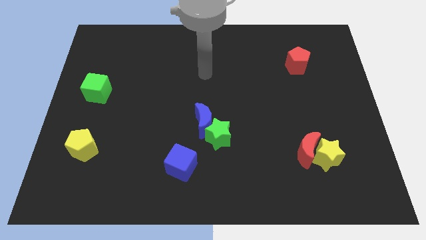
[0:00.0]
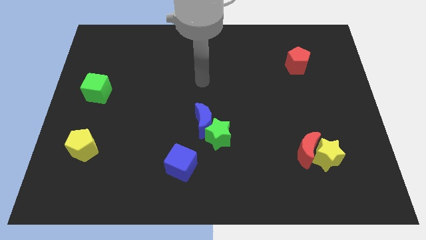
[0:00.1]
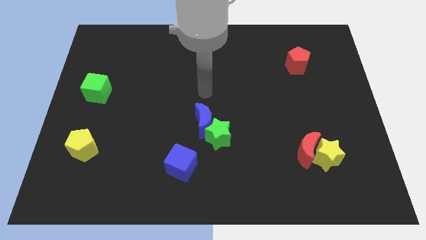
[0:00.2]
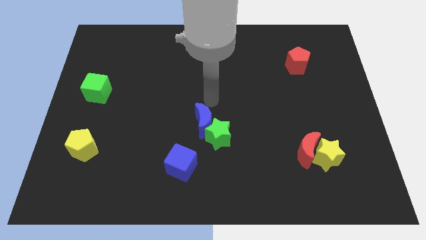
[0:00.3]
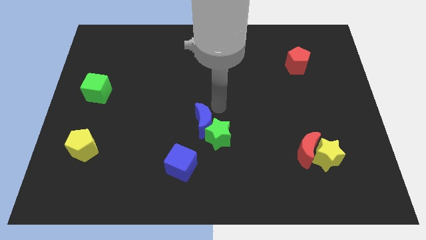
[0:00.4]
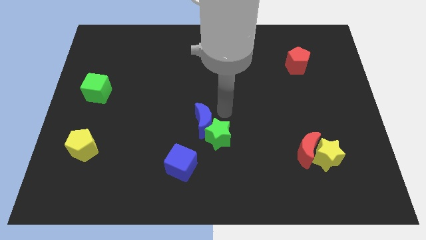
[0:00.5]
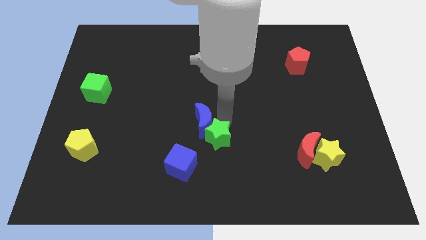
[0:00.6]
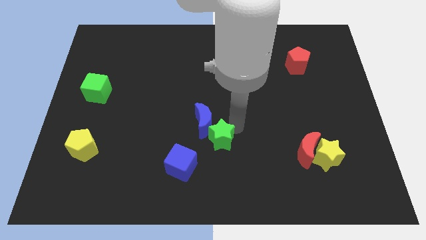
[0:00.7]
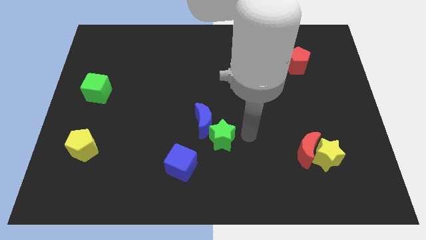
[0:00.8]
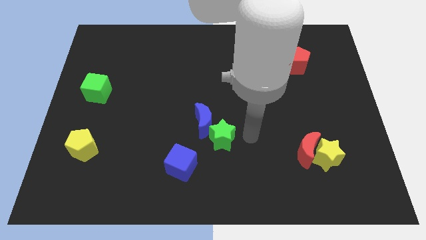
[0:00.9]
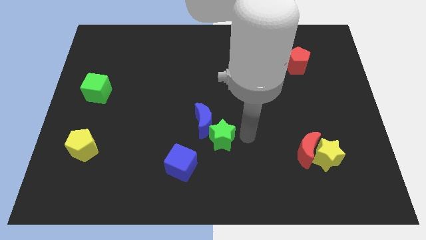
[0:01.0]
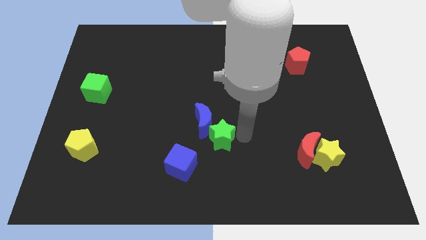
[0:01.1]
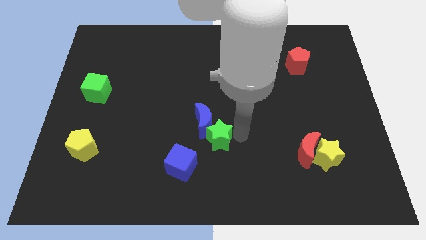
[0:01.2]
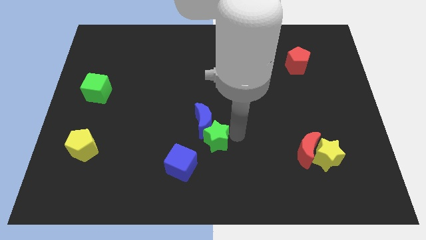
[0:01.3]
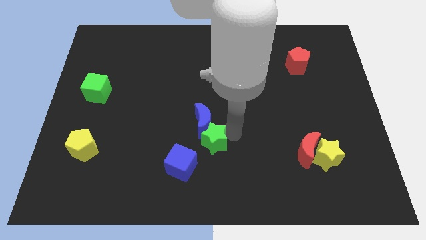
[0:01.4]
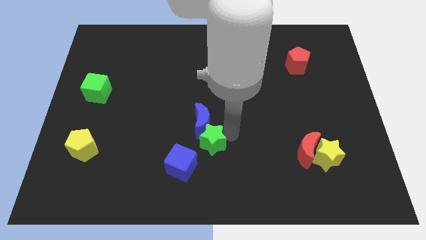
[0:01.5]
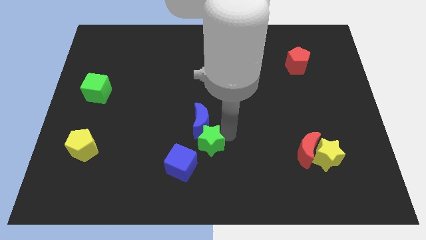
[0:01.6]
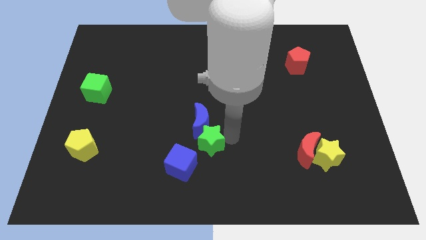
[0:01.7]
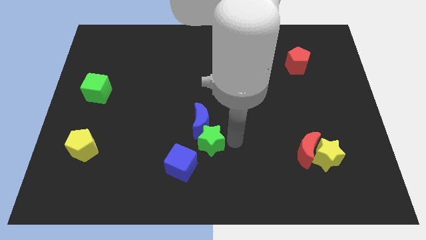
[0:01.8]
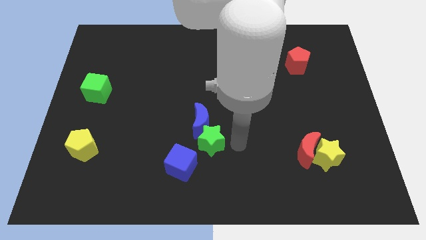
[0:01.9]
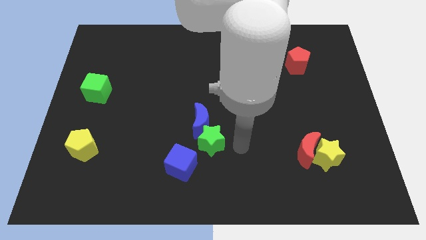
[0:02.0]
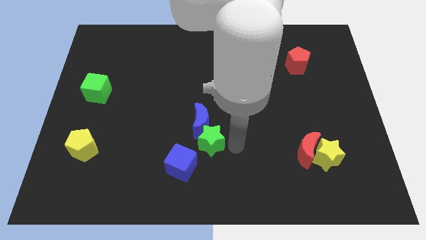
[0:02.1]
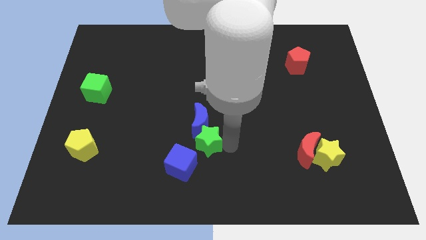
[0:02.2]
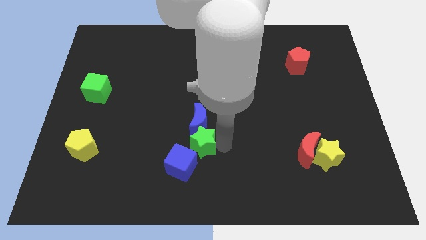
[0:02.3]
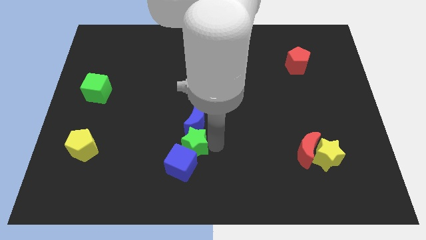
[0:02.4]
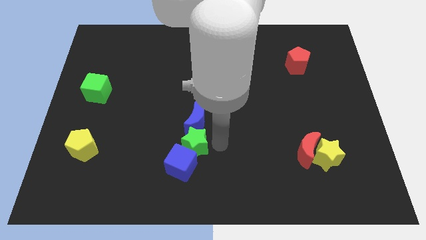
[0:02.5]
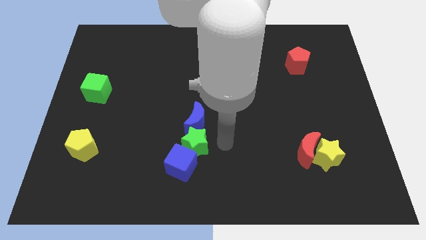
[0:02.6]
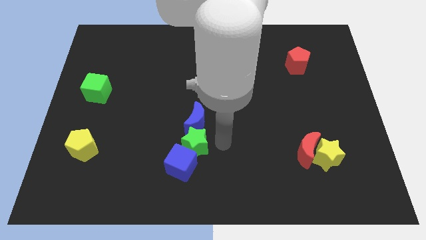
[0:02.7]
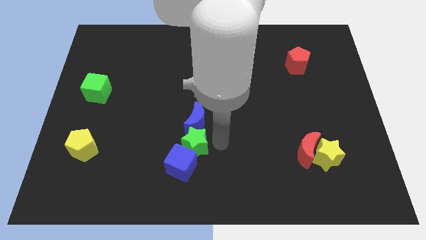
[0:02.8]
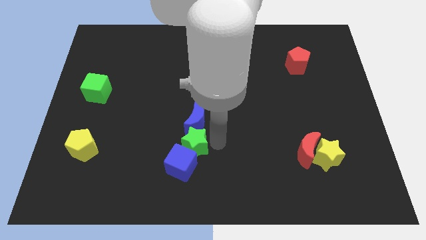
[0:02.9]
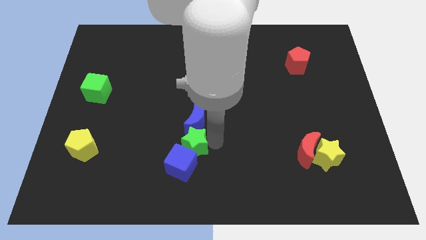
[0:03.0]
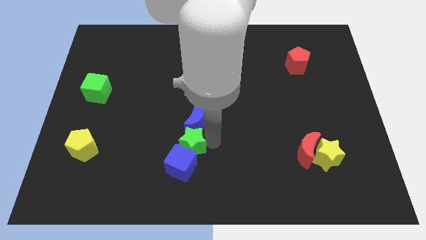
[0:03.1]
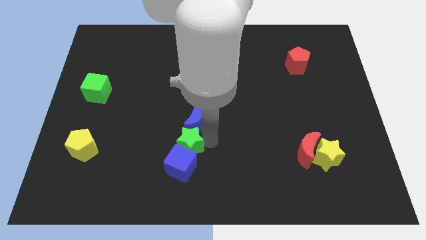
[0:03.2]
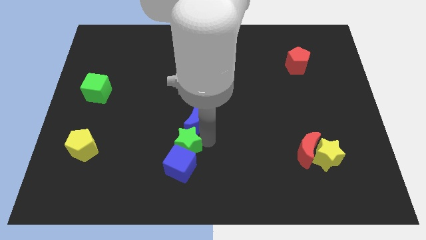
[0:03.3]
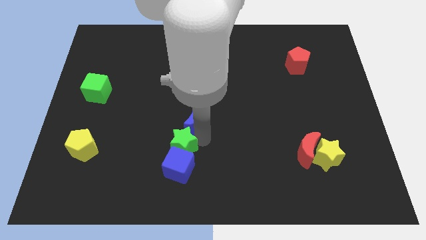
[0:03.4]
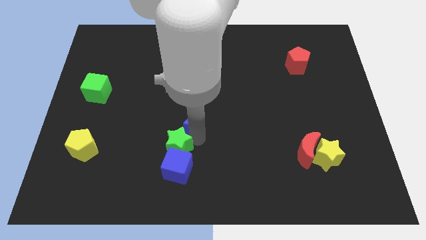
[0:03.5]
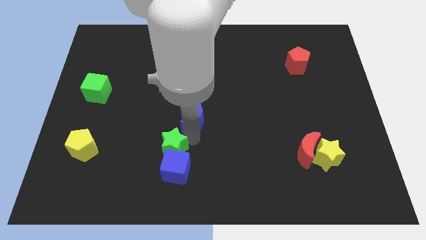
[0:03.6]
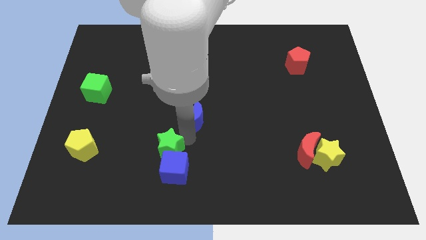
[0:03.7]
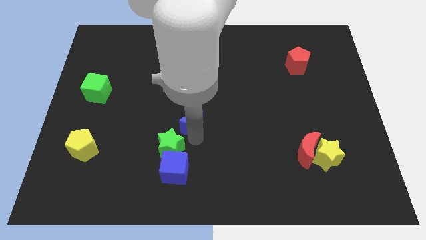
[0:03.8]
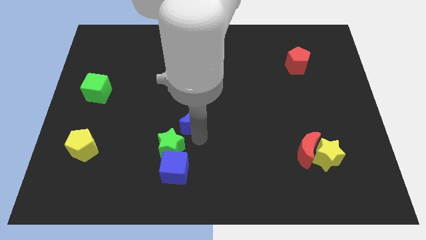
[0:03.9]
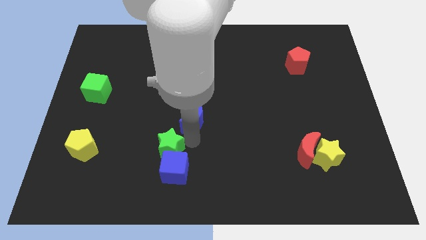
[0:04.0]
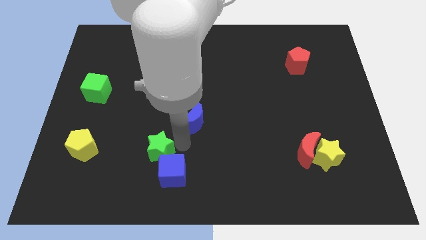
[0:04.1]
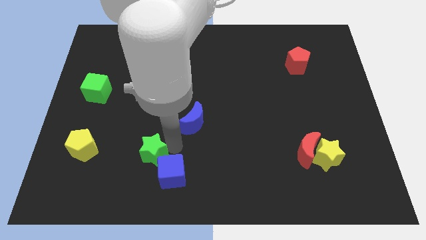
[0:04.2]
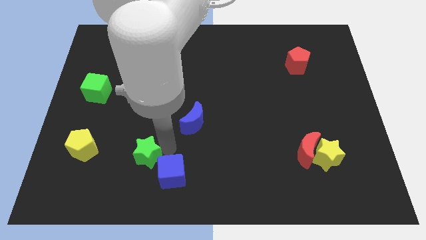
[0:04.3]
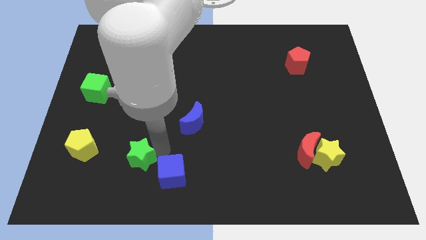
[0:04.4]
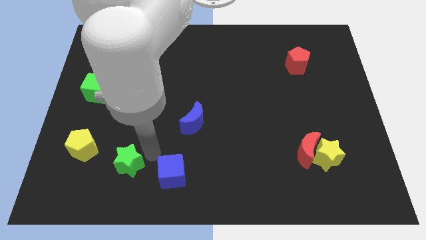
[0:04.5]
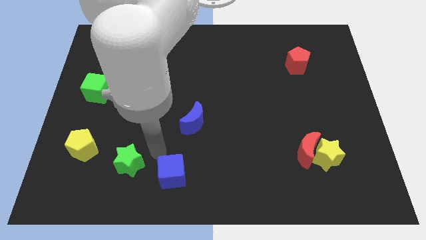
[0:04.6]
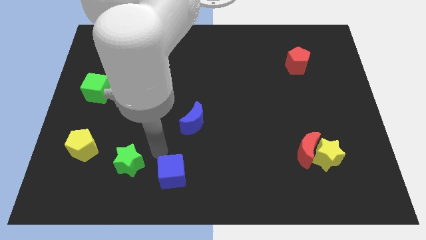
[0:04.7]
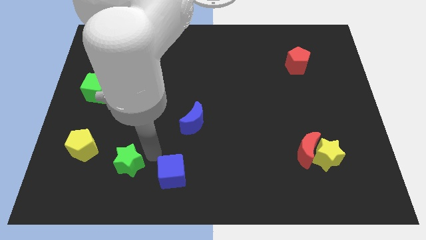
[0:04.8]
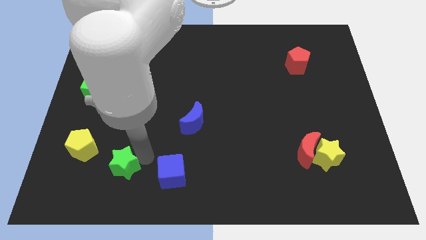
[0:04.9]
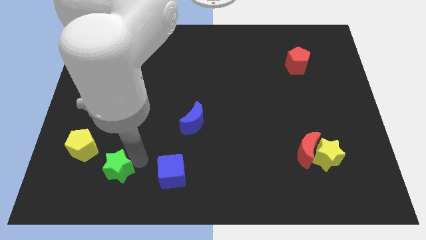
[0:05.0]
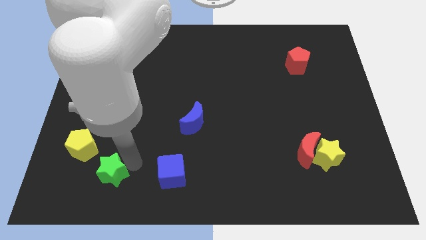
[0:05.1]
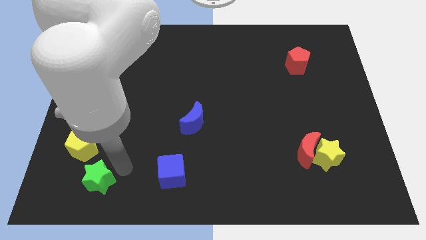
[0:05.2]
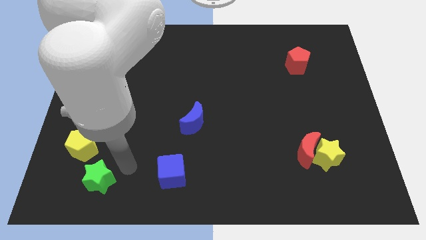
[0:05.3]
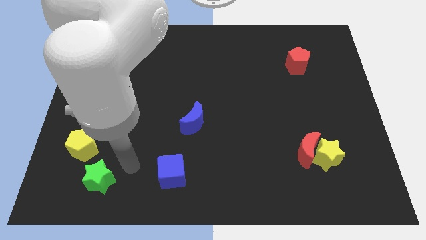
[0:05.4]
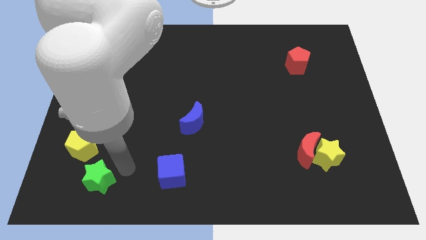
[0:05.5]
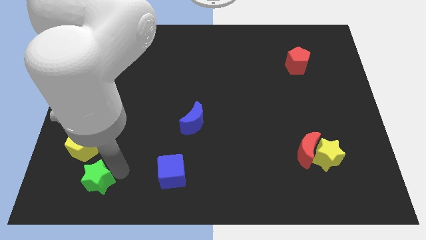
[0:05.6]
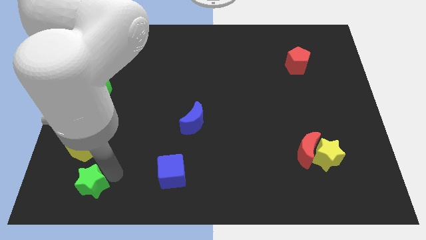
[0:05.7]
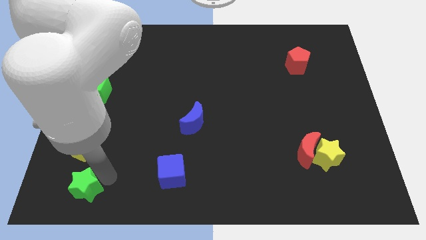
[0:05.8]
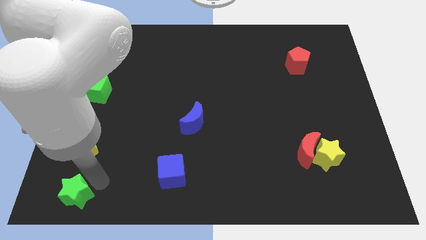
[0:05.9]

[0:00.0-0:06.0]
put the green star to the bottom left

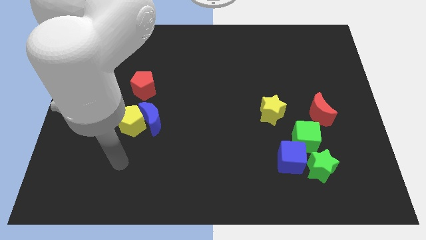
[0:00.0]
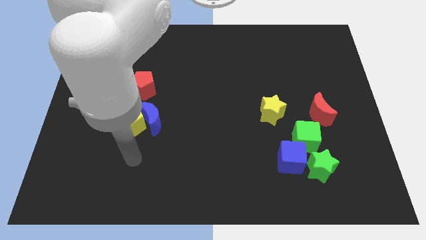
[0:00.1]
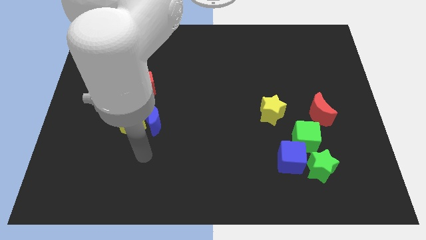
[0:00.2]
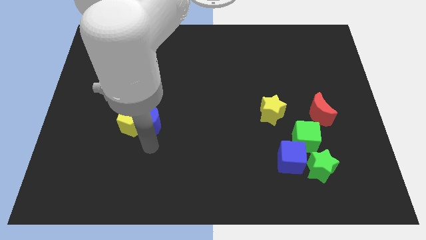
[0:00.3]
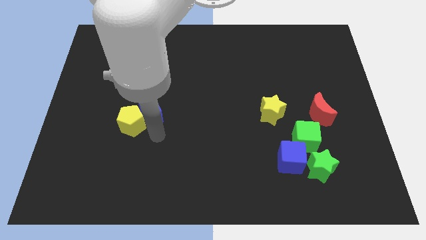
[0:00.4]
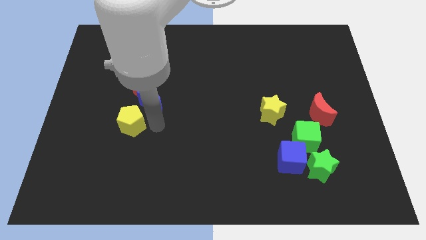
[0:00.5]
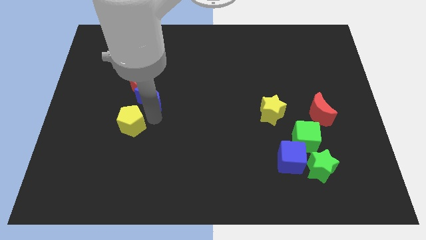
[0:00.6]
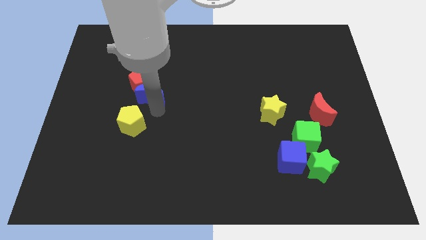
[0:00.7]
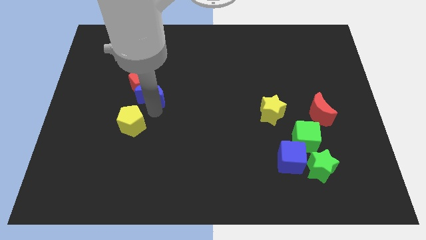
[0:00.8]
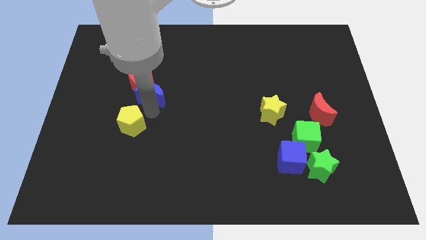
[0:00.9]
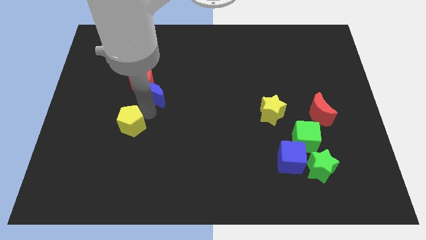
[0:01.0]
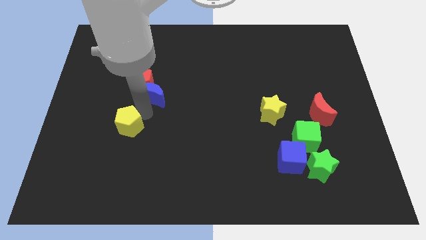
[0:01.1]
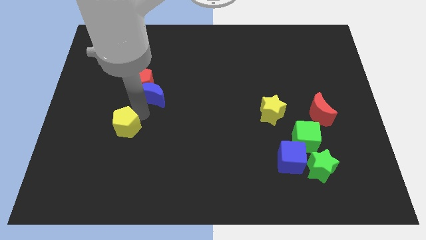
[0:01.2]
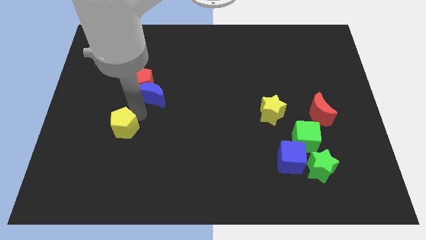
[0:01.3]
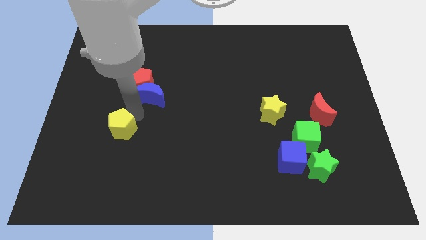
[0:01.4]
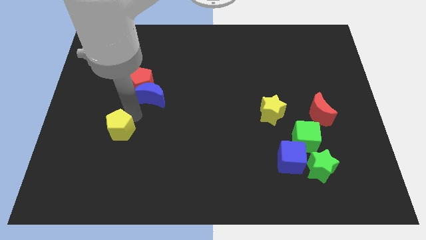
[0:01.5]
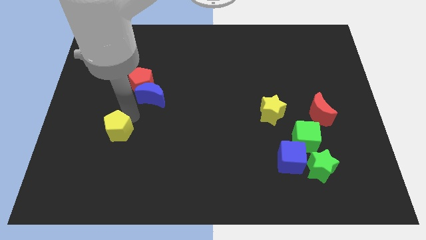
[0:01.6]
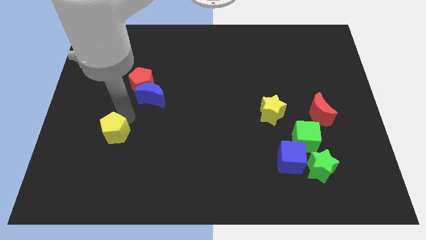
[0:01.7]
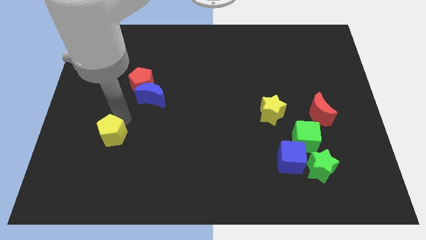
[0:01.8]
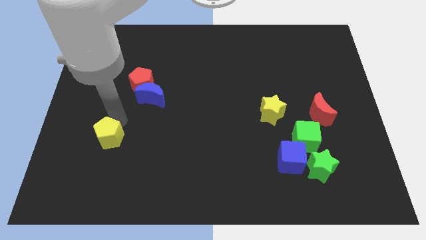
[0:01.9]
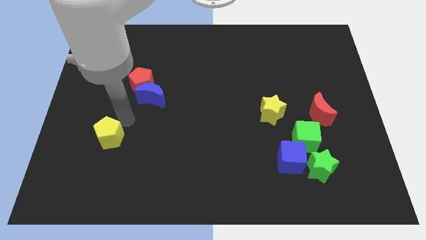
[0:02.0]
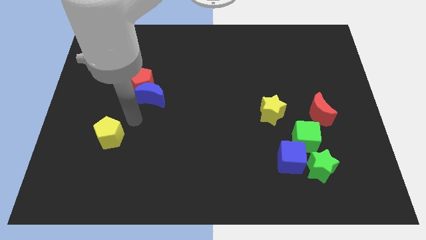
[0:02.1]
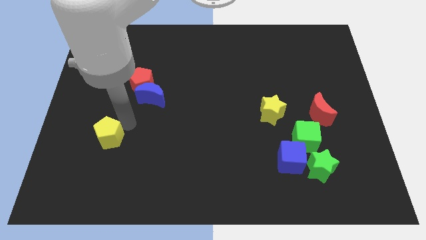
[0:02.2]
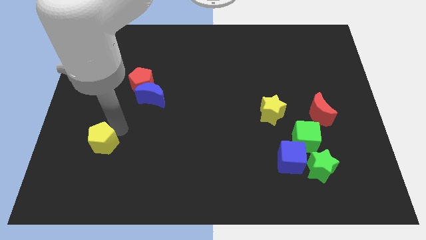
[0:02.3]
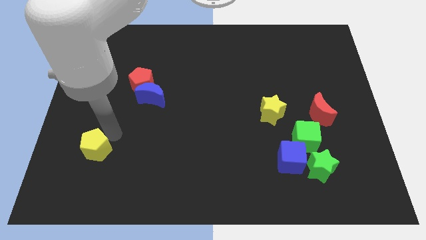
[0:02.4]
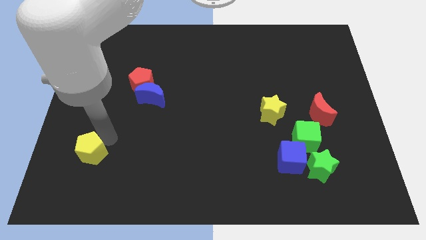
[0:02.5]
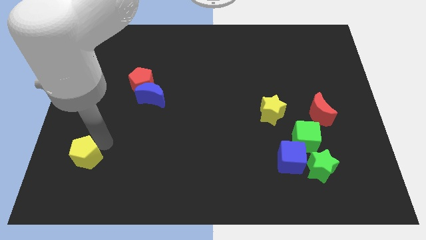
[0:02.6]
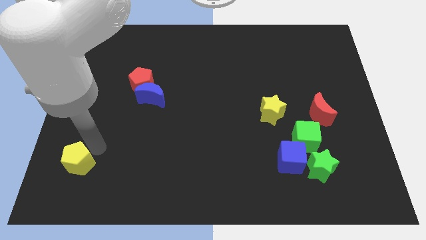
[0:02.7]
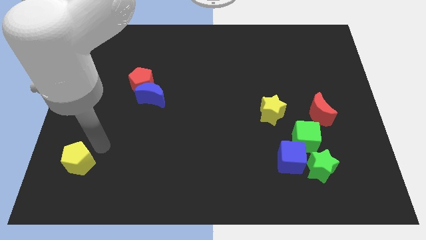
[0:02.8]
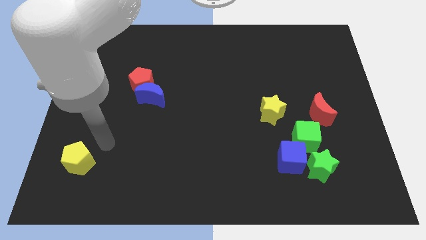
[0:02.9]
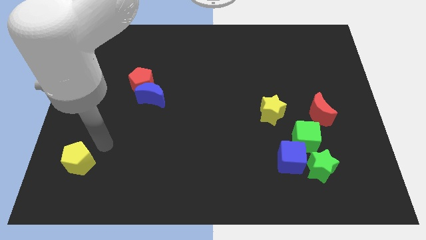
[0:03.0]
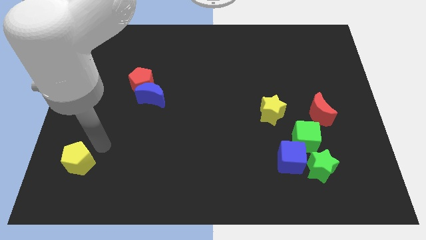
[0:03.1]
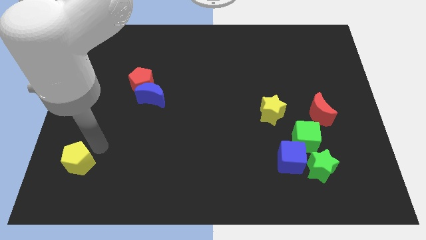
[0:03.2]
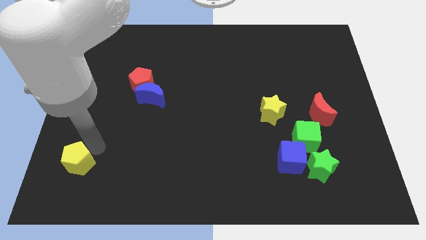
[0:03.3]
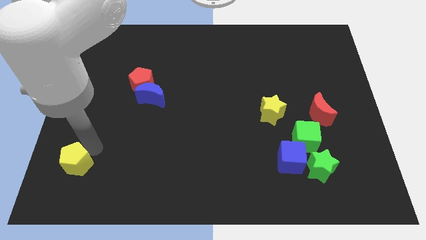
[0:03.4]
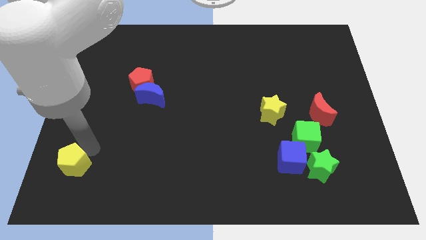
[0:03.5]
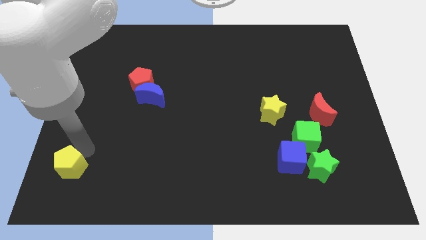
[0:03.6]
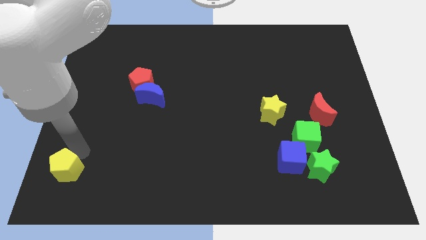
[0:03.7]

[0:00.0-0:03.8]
push the yellow pentagon to the bottom left
